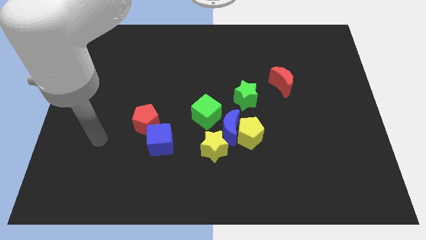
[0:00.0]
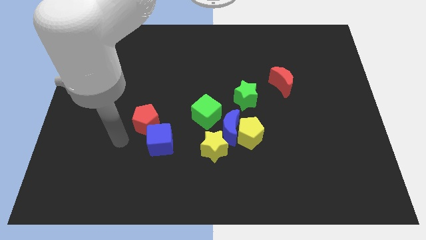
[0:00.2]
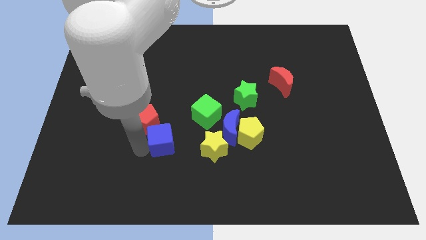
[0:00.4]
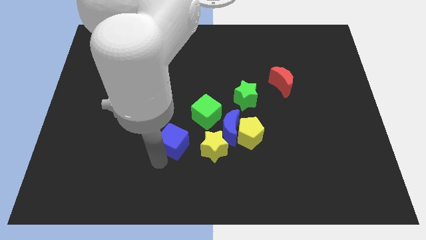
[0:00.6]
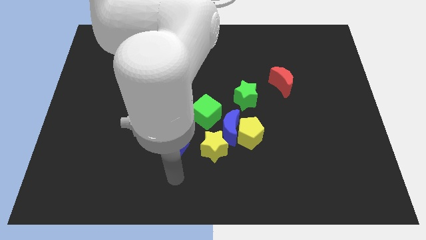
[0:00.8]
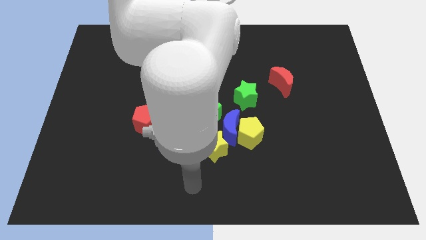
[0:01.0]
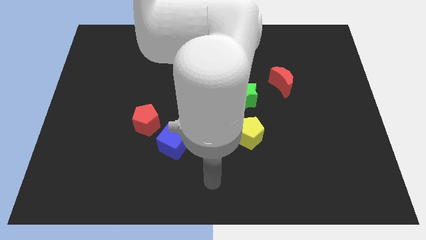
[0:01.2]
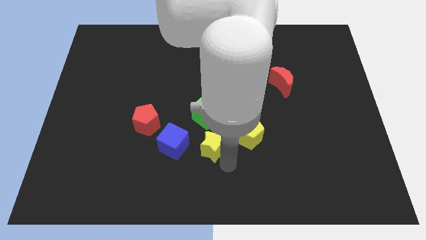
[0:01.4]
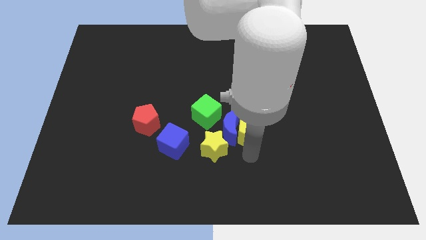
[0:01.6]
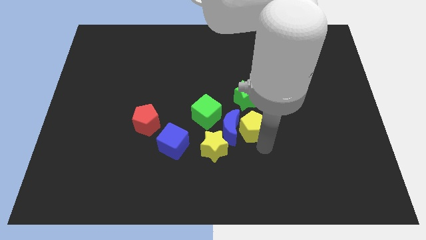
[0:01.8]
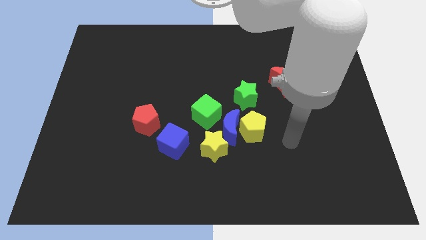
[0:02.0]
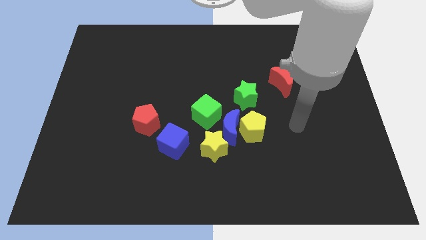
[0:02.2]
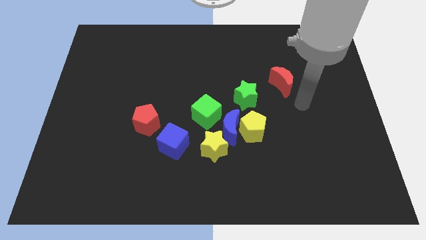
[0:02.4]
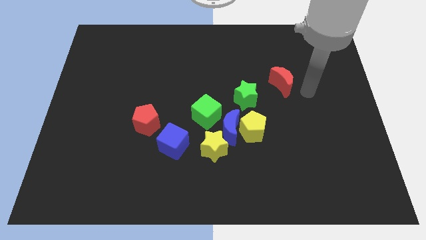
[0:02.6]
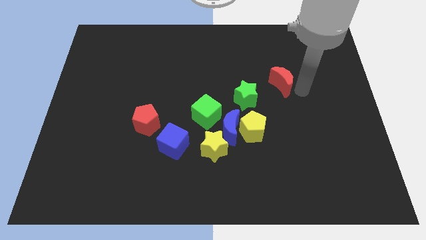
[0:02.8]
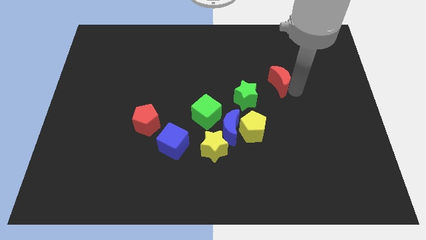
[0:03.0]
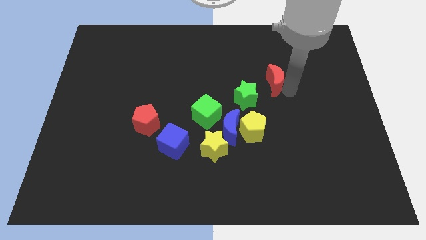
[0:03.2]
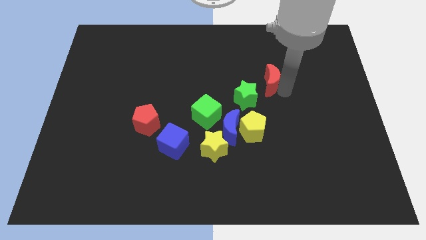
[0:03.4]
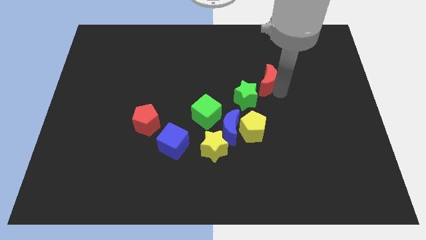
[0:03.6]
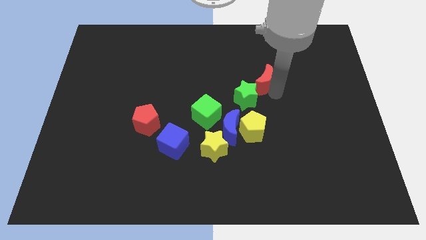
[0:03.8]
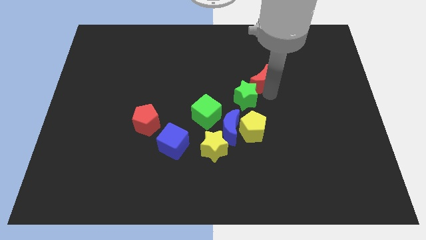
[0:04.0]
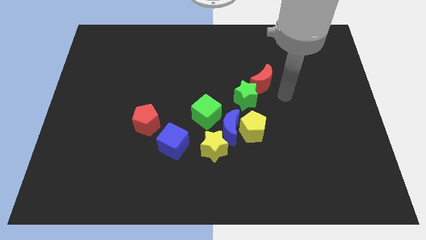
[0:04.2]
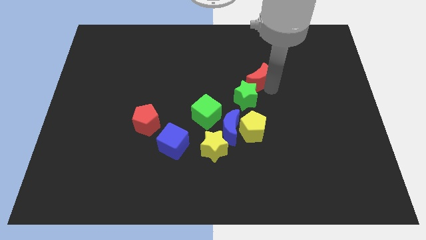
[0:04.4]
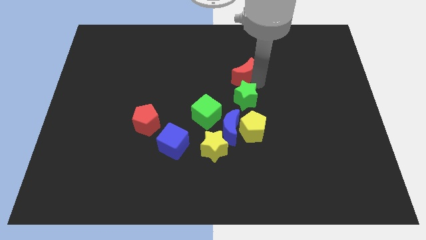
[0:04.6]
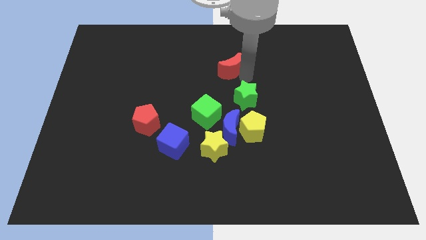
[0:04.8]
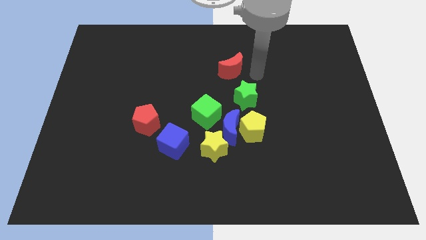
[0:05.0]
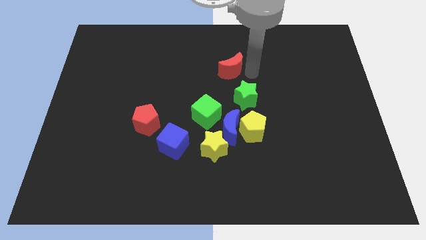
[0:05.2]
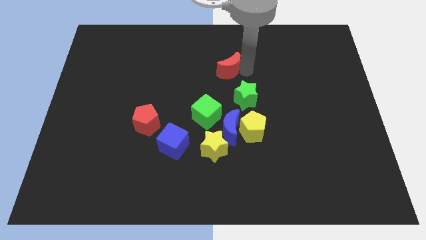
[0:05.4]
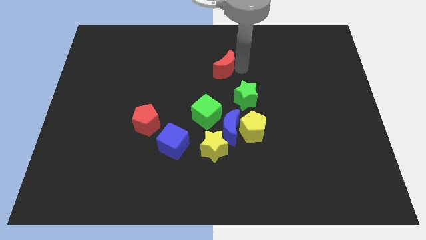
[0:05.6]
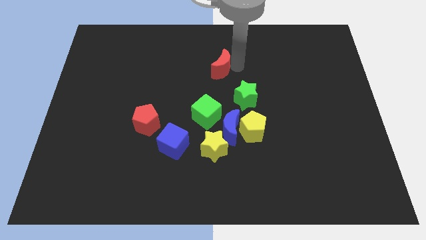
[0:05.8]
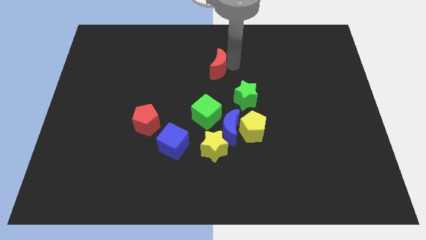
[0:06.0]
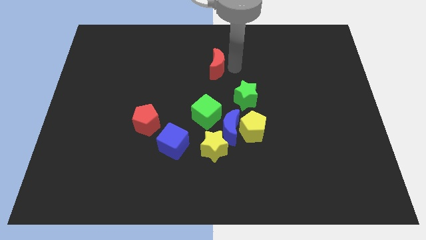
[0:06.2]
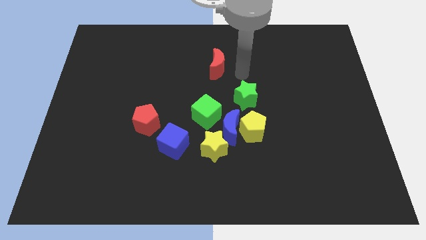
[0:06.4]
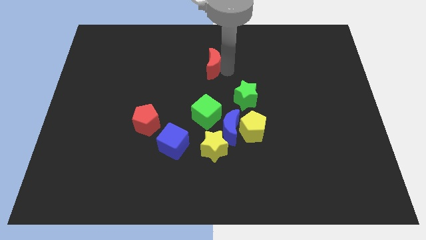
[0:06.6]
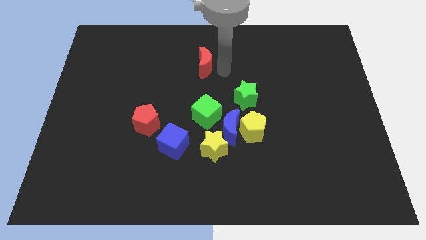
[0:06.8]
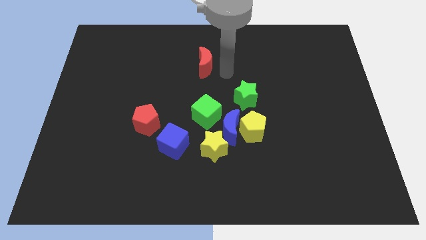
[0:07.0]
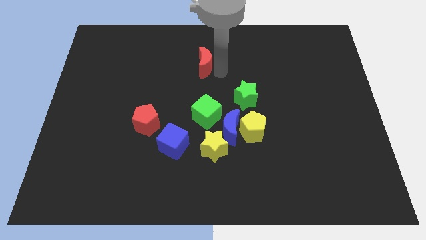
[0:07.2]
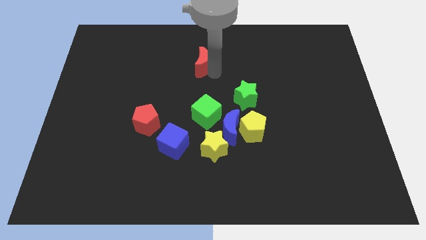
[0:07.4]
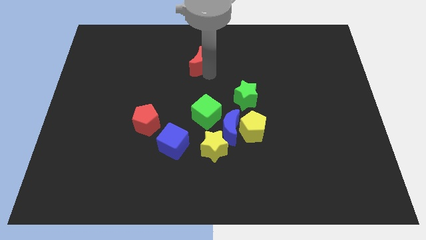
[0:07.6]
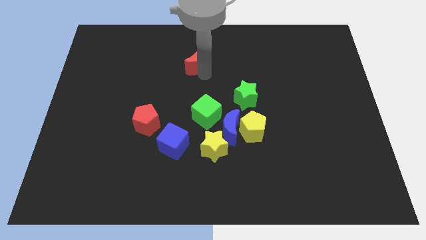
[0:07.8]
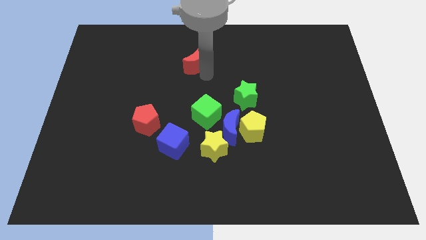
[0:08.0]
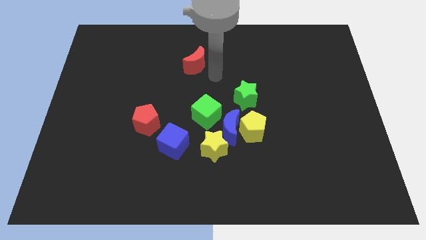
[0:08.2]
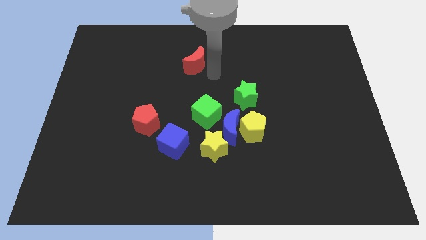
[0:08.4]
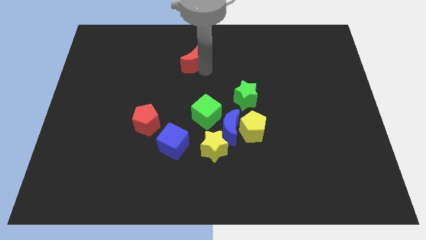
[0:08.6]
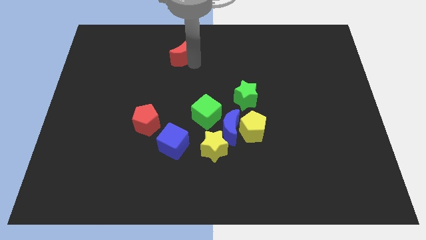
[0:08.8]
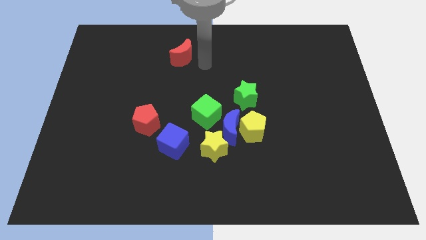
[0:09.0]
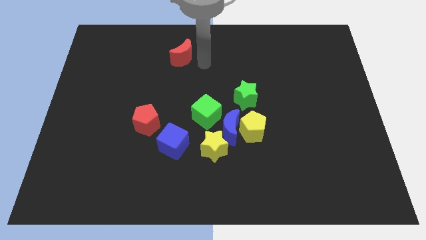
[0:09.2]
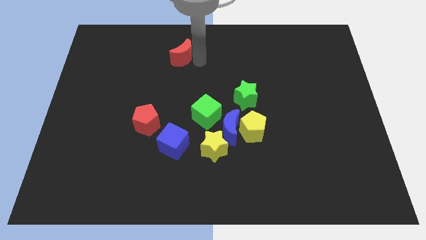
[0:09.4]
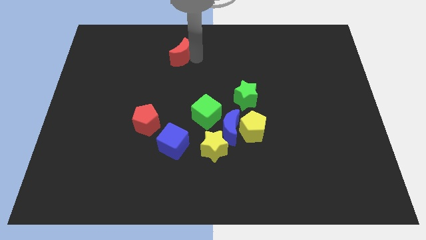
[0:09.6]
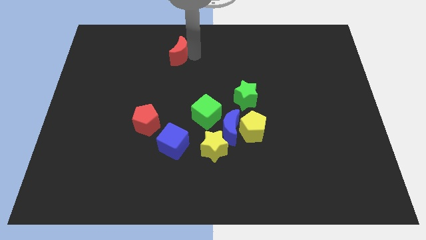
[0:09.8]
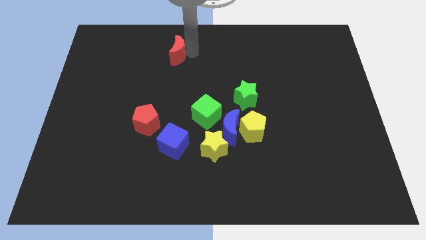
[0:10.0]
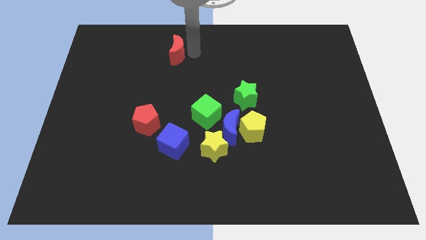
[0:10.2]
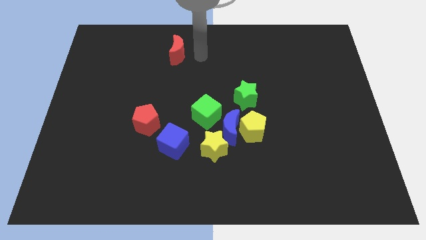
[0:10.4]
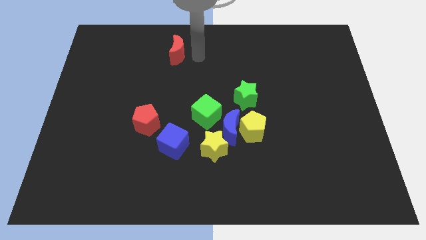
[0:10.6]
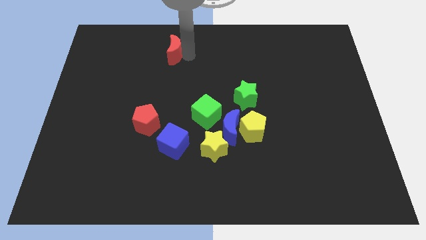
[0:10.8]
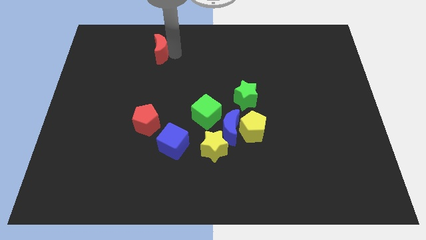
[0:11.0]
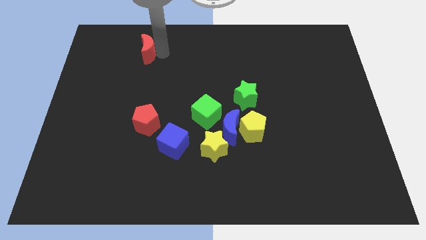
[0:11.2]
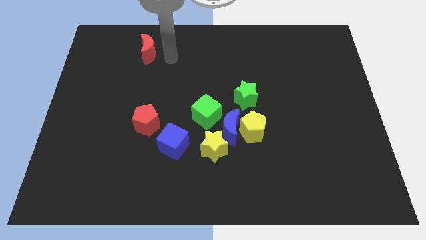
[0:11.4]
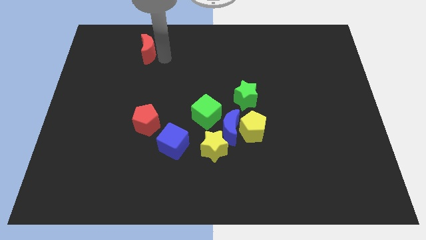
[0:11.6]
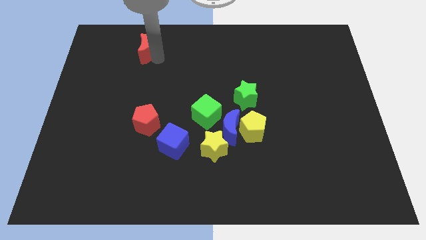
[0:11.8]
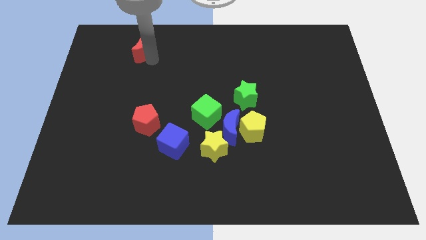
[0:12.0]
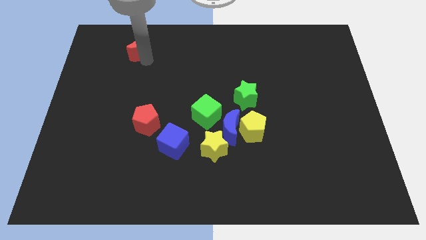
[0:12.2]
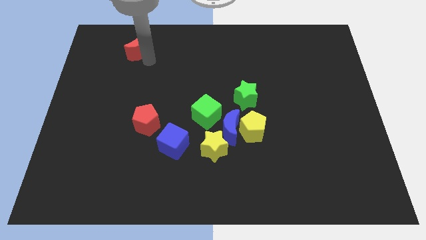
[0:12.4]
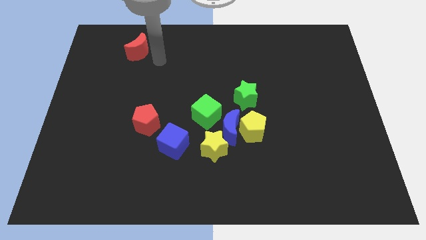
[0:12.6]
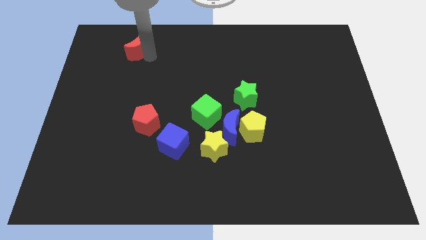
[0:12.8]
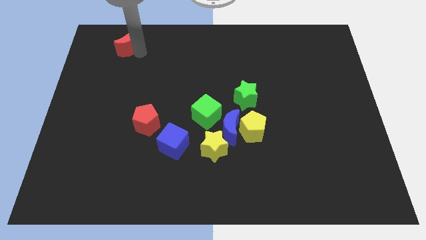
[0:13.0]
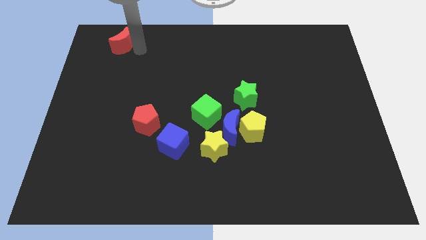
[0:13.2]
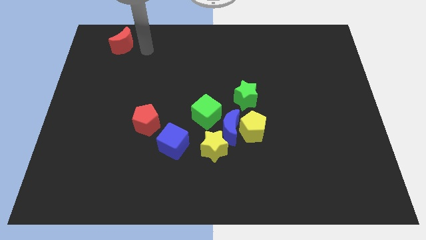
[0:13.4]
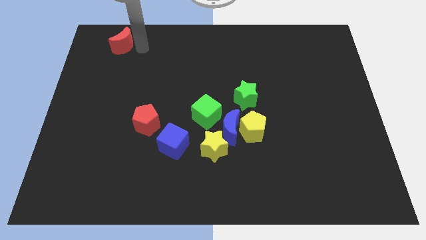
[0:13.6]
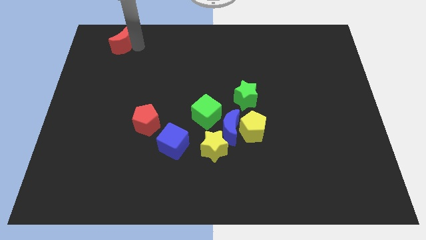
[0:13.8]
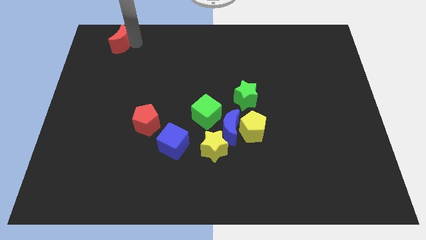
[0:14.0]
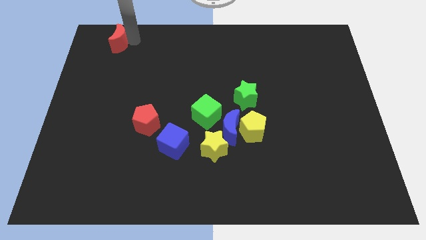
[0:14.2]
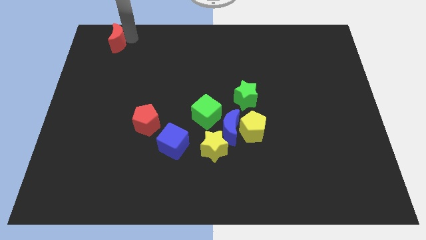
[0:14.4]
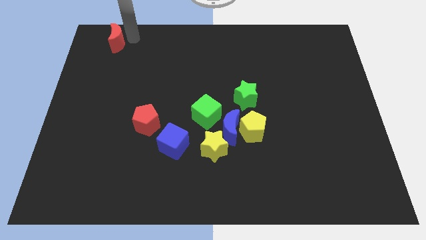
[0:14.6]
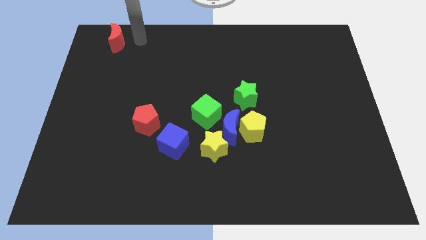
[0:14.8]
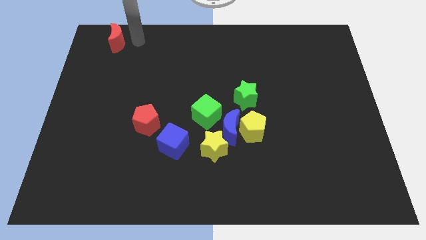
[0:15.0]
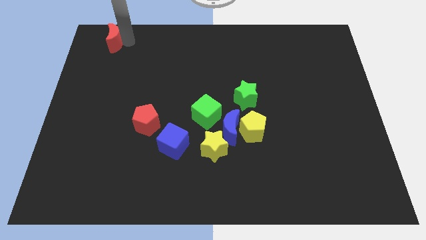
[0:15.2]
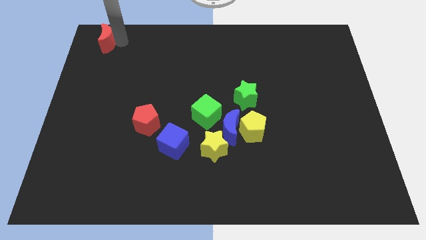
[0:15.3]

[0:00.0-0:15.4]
slide the red moon to the top left of the board
